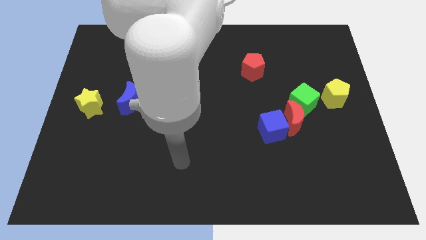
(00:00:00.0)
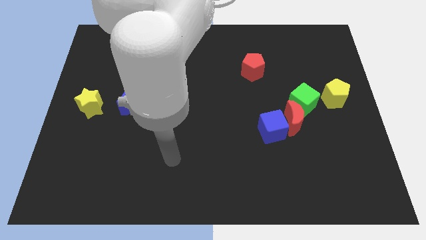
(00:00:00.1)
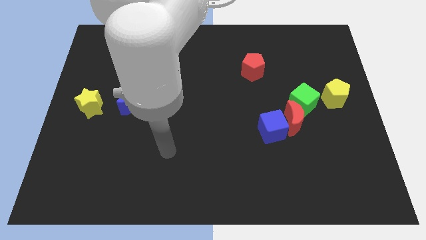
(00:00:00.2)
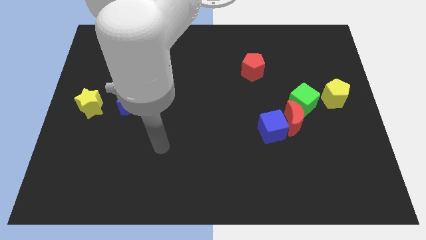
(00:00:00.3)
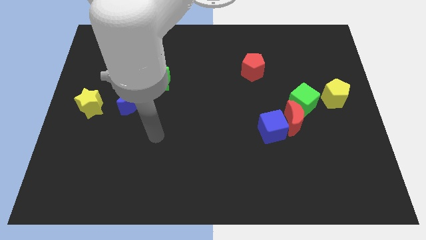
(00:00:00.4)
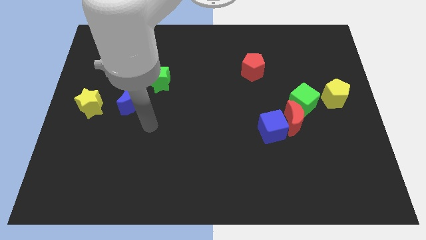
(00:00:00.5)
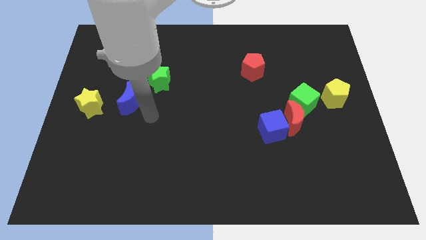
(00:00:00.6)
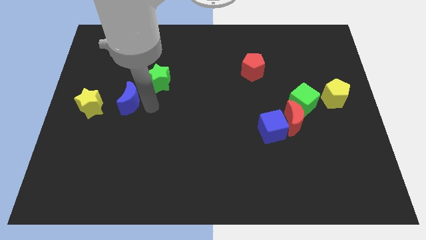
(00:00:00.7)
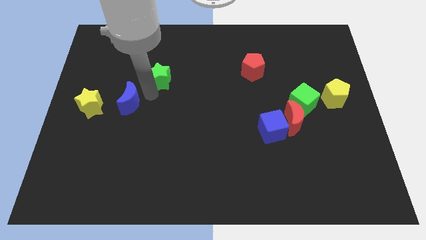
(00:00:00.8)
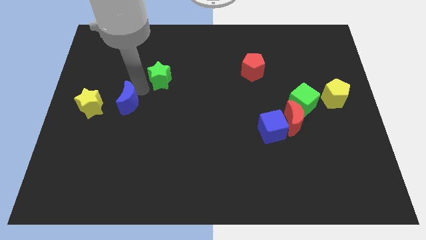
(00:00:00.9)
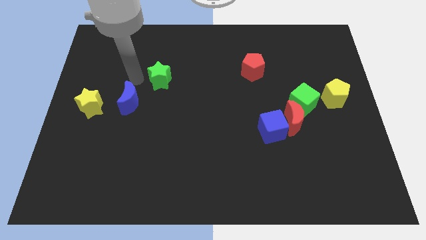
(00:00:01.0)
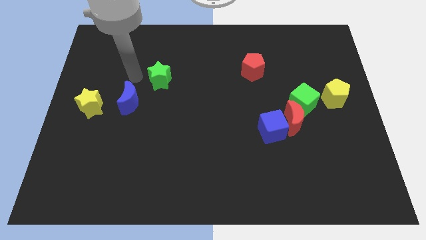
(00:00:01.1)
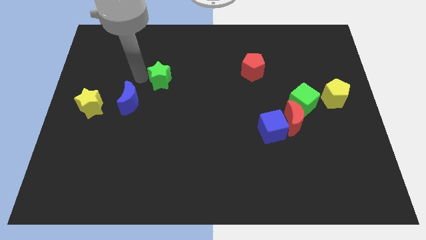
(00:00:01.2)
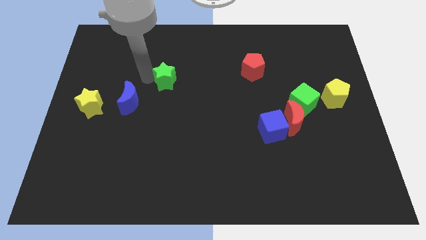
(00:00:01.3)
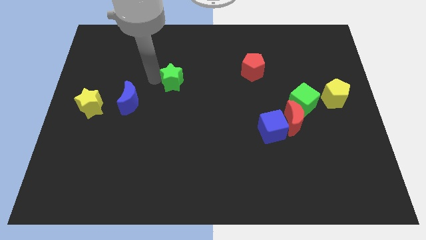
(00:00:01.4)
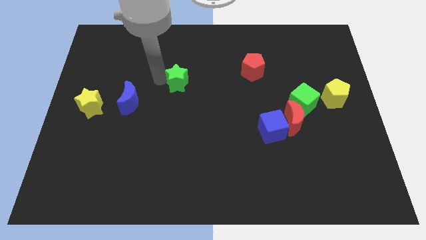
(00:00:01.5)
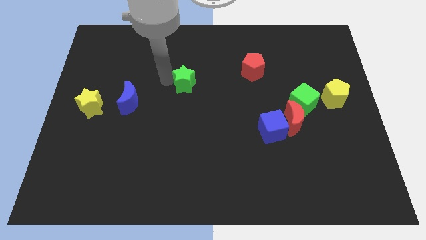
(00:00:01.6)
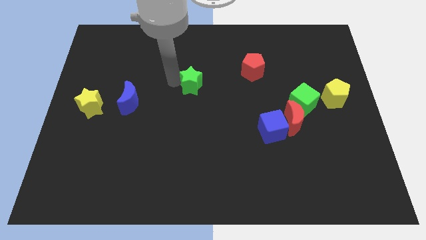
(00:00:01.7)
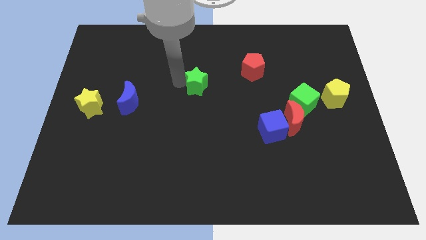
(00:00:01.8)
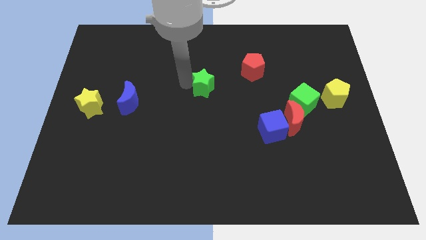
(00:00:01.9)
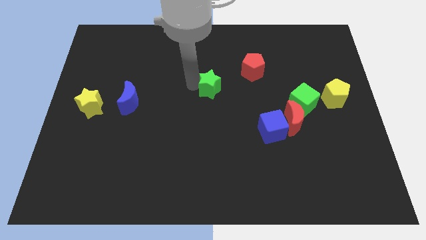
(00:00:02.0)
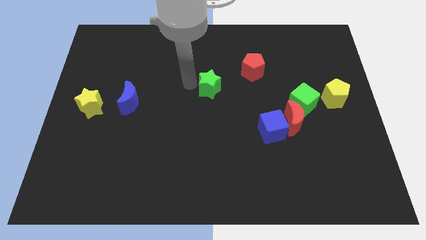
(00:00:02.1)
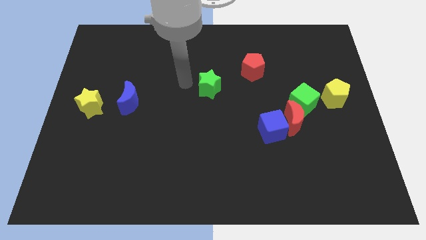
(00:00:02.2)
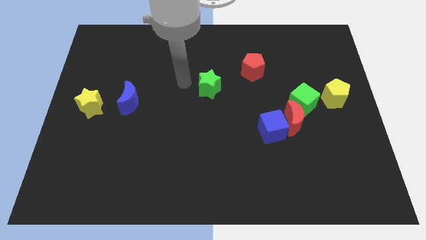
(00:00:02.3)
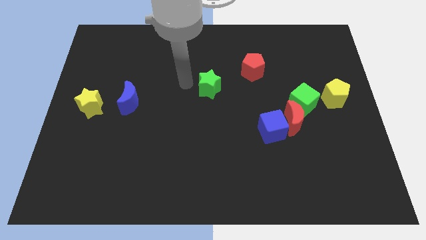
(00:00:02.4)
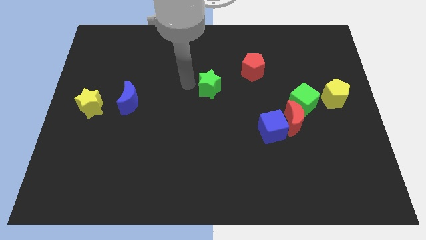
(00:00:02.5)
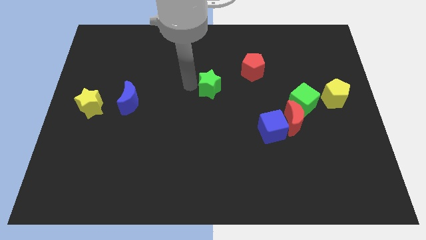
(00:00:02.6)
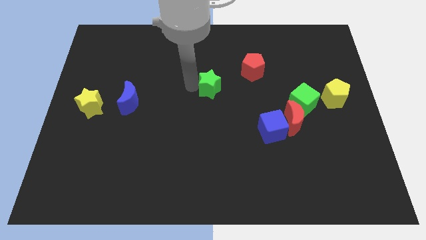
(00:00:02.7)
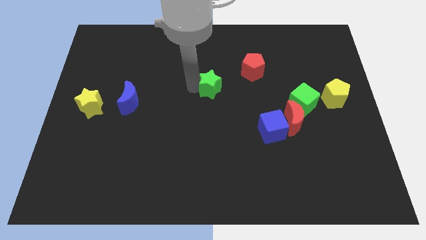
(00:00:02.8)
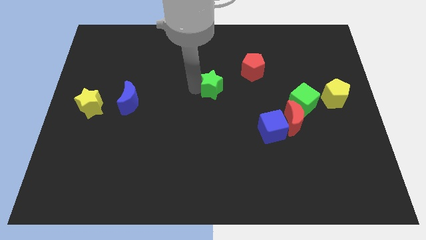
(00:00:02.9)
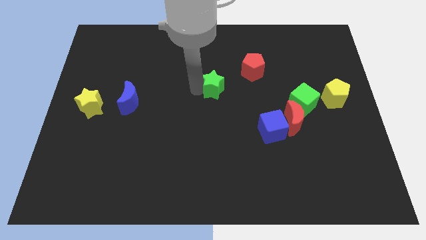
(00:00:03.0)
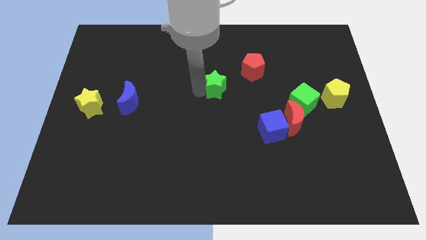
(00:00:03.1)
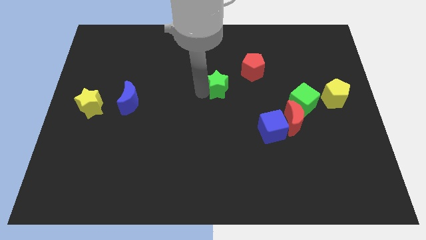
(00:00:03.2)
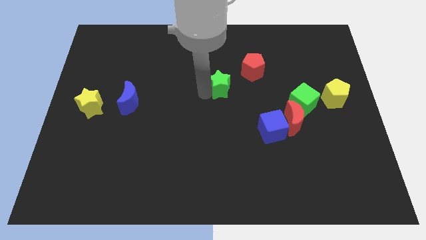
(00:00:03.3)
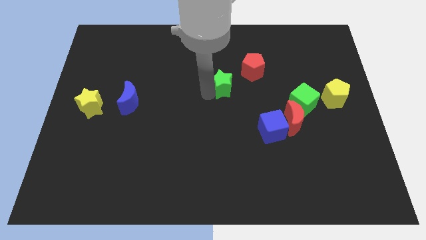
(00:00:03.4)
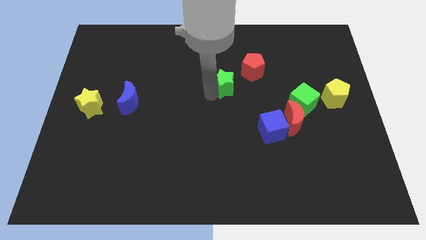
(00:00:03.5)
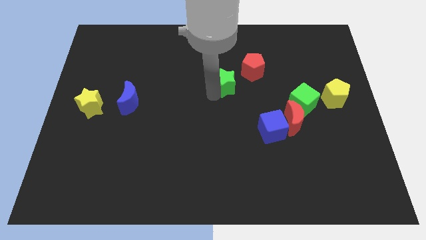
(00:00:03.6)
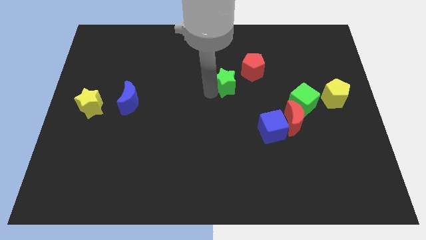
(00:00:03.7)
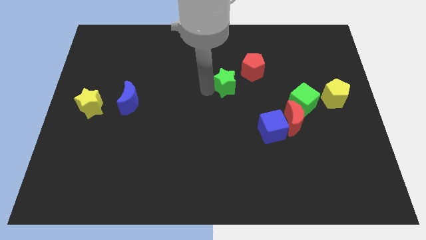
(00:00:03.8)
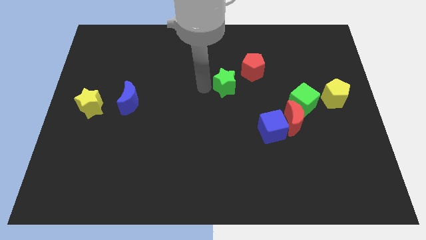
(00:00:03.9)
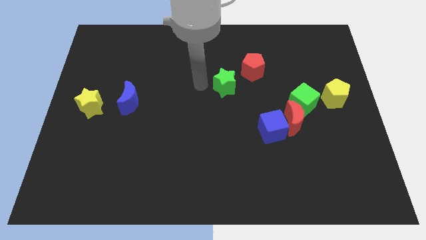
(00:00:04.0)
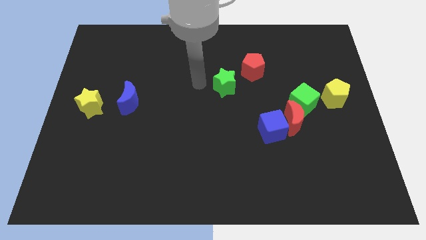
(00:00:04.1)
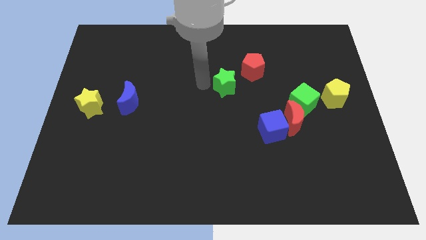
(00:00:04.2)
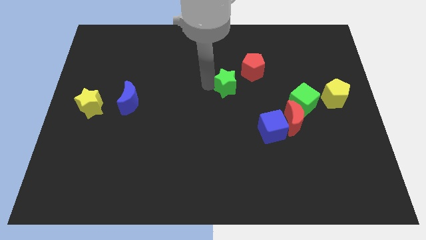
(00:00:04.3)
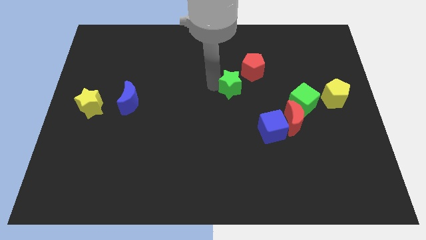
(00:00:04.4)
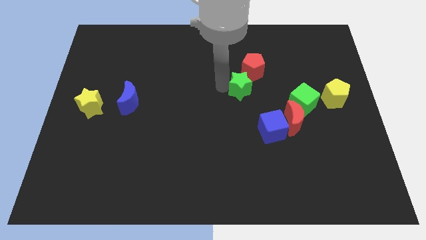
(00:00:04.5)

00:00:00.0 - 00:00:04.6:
slide the green star right

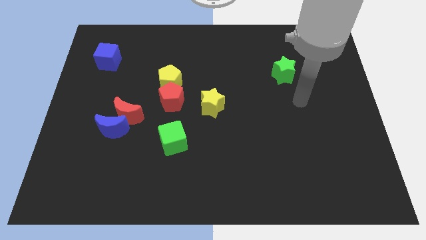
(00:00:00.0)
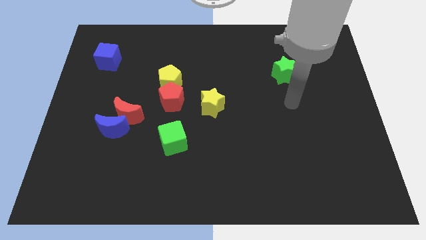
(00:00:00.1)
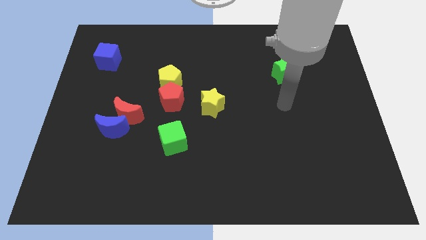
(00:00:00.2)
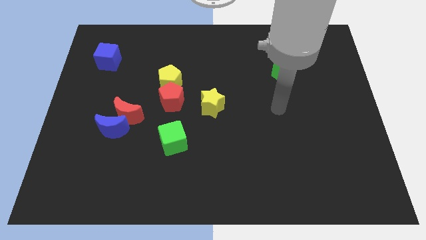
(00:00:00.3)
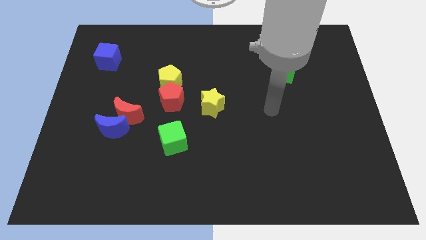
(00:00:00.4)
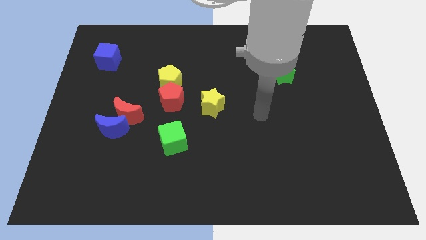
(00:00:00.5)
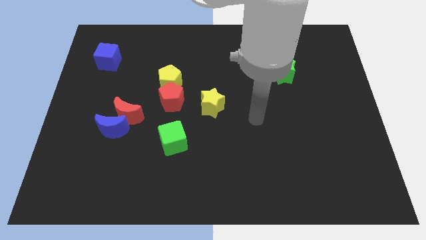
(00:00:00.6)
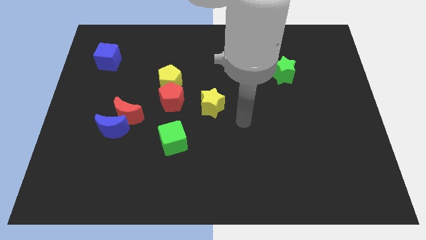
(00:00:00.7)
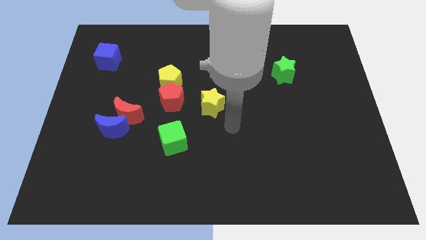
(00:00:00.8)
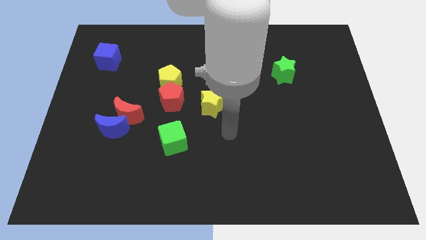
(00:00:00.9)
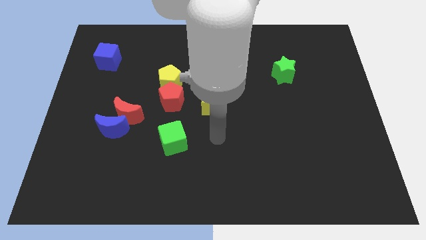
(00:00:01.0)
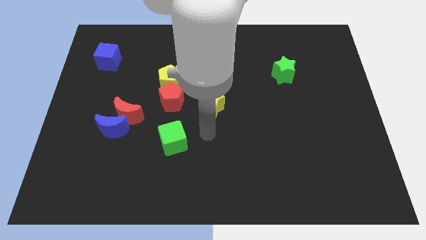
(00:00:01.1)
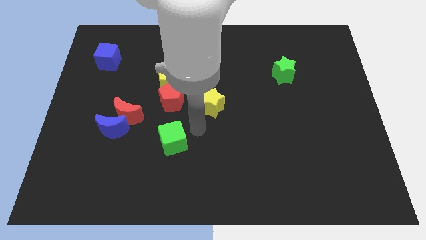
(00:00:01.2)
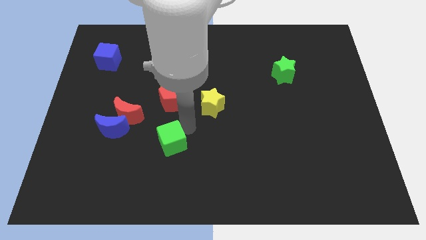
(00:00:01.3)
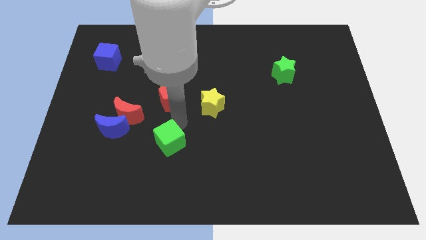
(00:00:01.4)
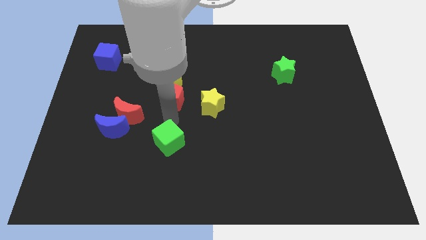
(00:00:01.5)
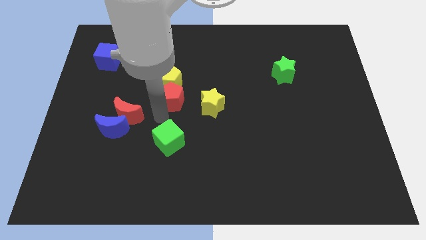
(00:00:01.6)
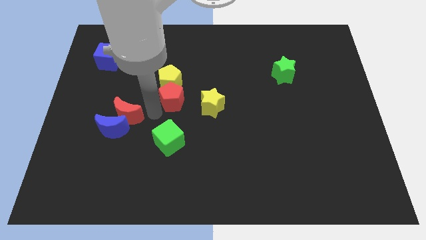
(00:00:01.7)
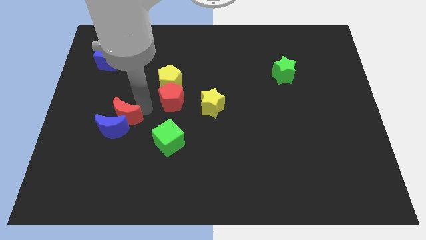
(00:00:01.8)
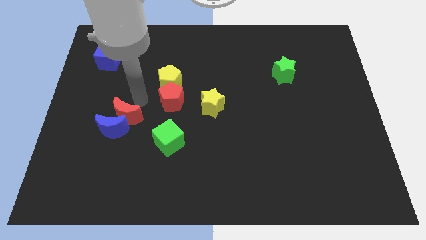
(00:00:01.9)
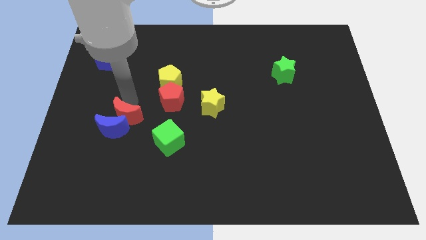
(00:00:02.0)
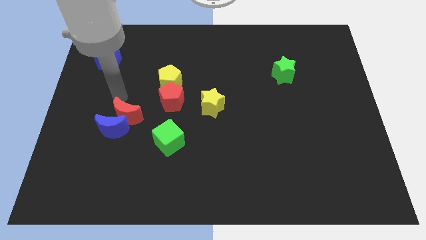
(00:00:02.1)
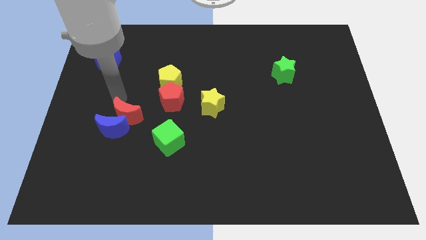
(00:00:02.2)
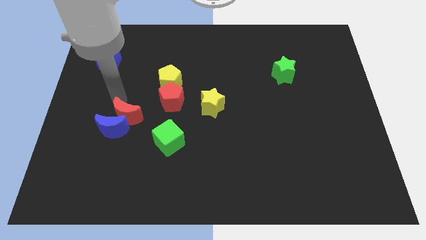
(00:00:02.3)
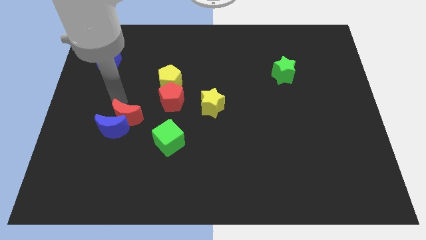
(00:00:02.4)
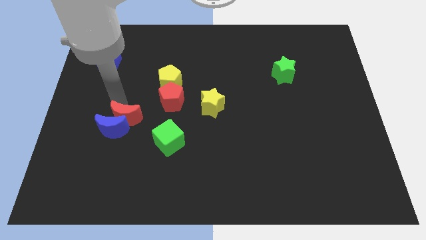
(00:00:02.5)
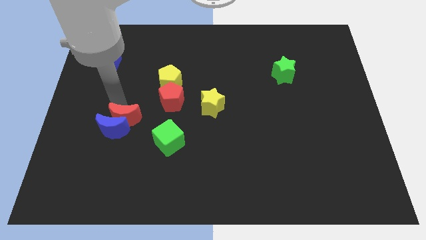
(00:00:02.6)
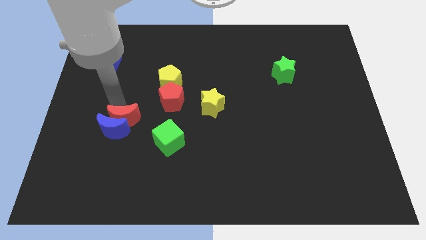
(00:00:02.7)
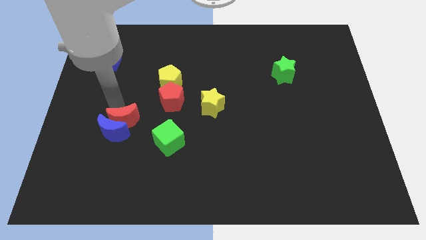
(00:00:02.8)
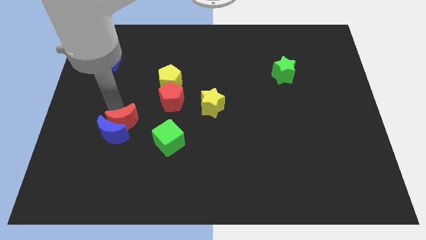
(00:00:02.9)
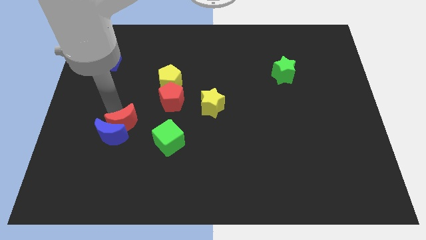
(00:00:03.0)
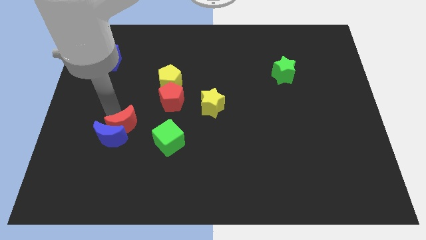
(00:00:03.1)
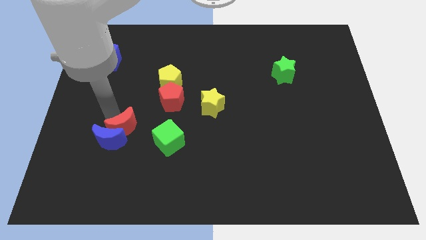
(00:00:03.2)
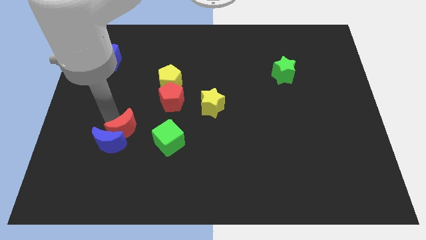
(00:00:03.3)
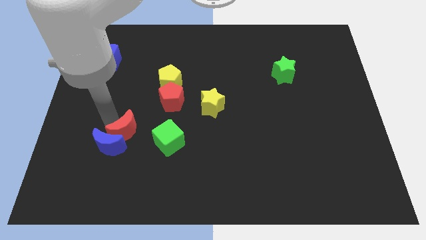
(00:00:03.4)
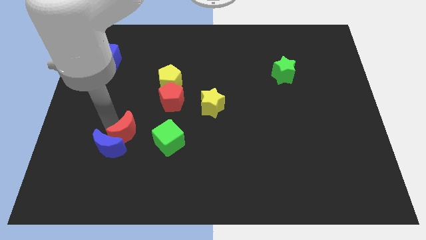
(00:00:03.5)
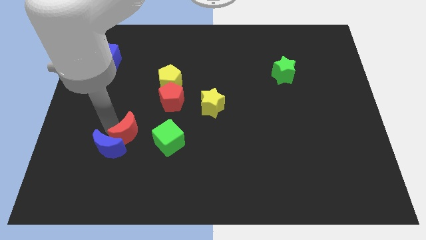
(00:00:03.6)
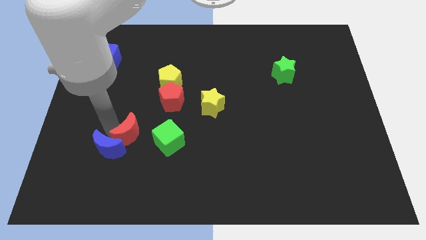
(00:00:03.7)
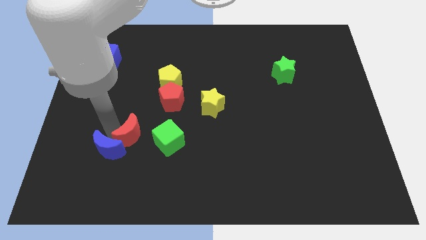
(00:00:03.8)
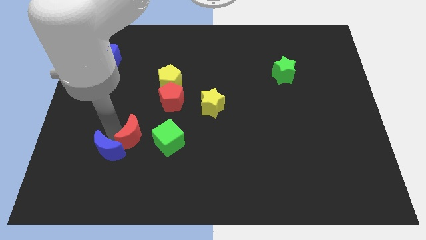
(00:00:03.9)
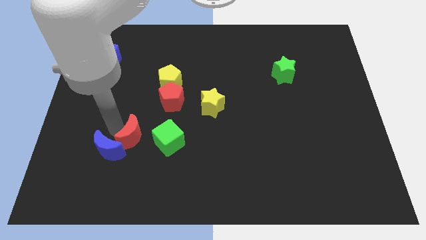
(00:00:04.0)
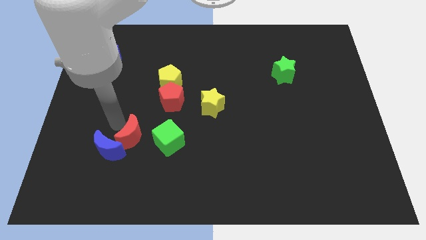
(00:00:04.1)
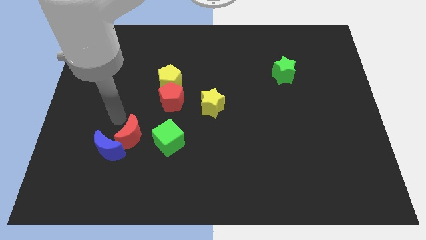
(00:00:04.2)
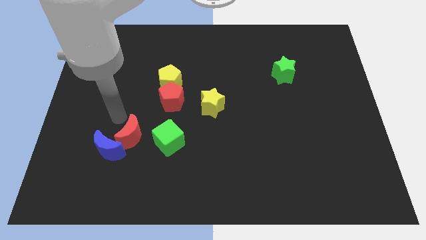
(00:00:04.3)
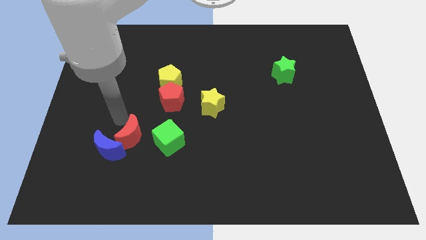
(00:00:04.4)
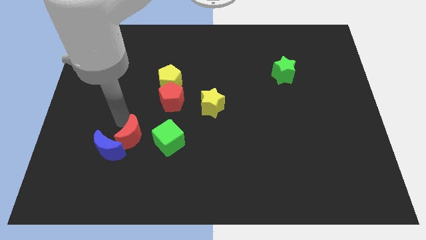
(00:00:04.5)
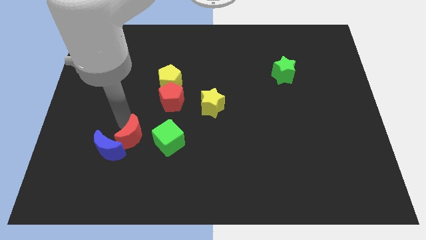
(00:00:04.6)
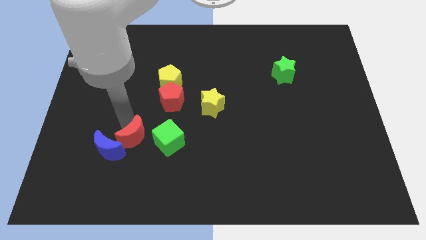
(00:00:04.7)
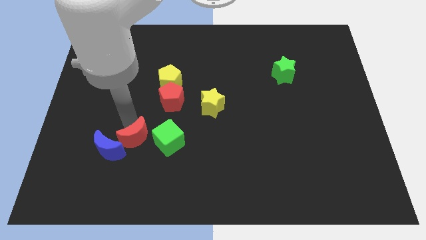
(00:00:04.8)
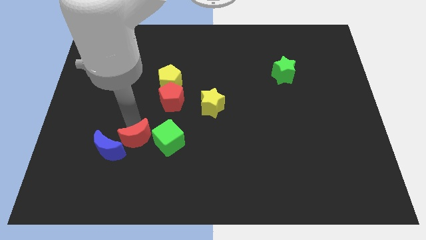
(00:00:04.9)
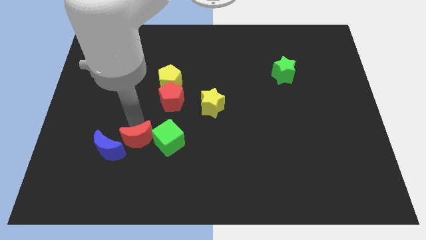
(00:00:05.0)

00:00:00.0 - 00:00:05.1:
slightly slide the red moon downwards and right diagonally
